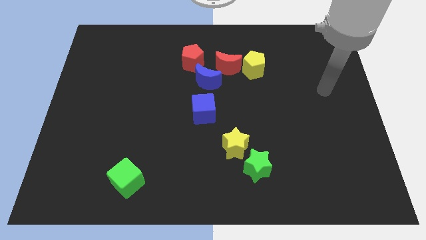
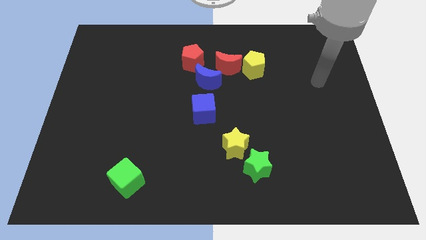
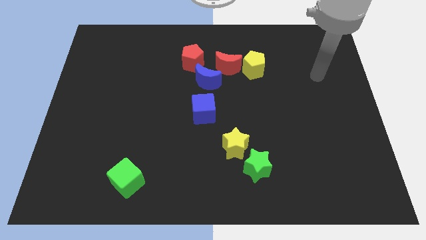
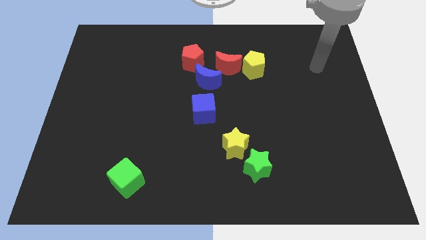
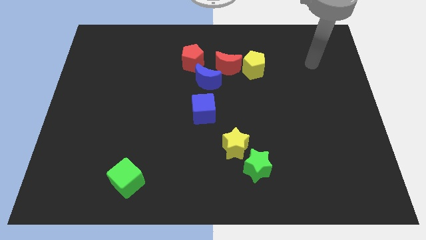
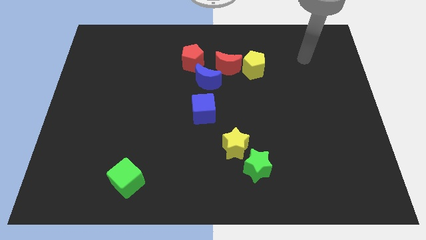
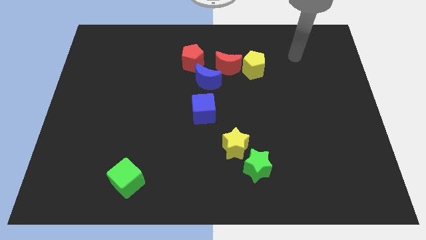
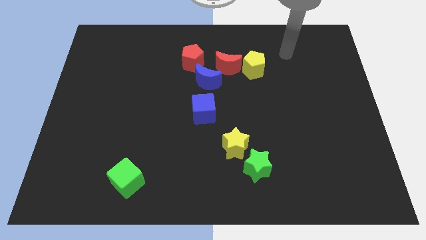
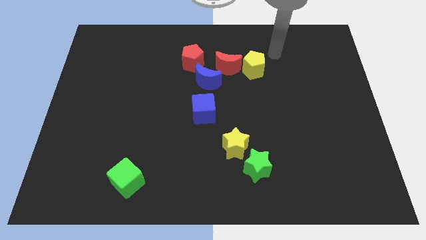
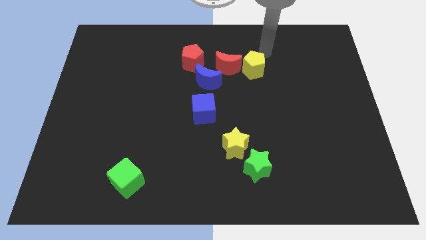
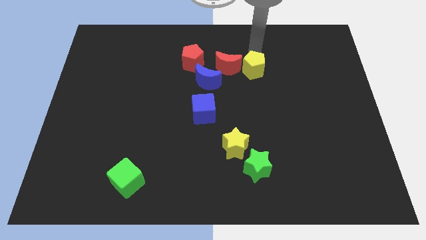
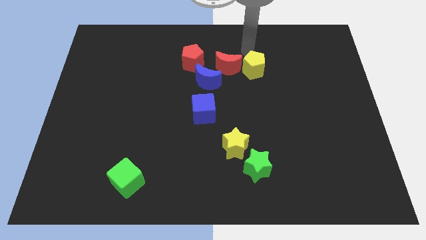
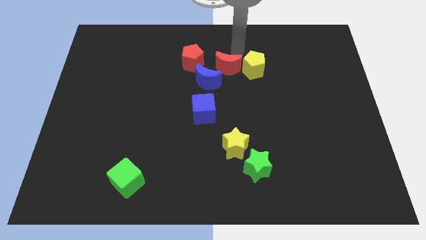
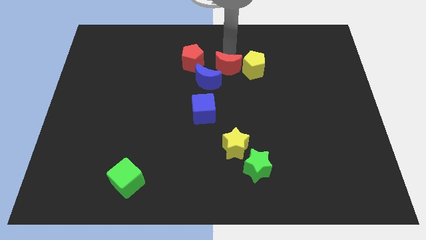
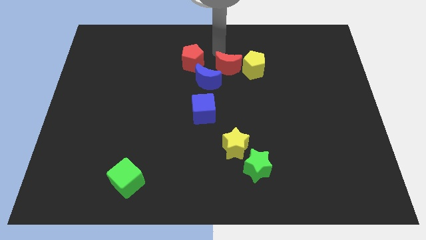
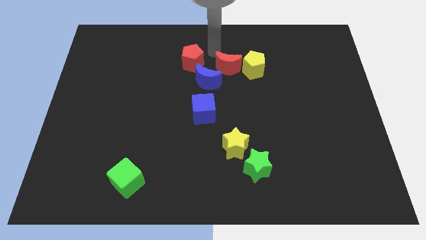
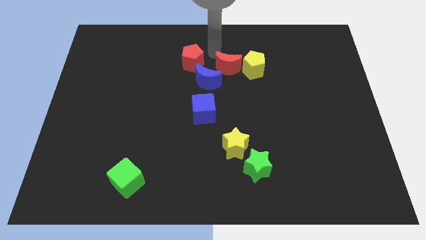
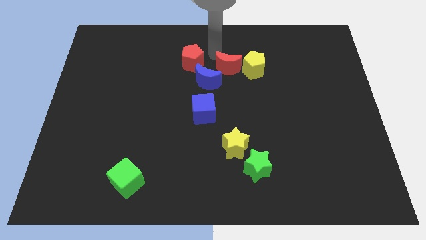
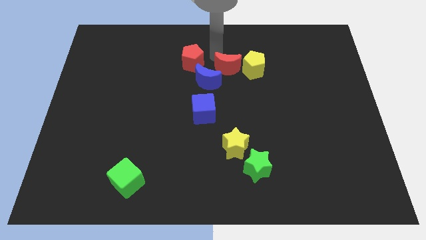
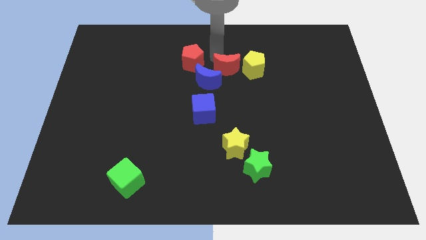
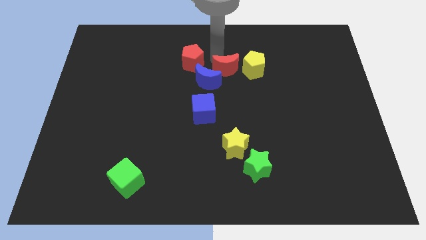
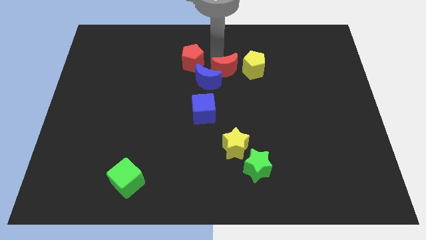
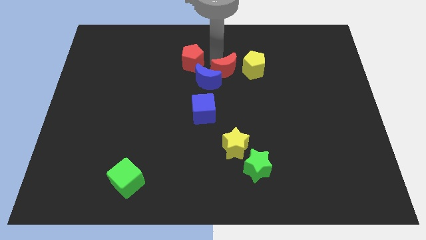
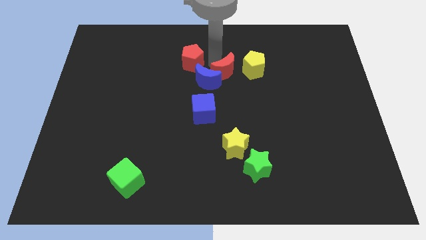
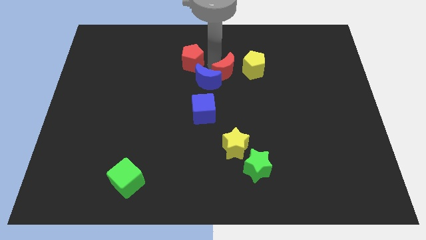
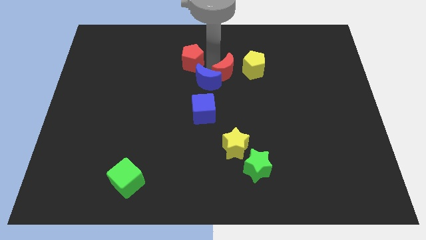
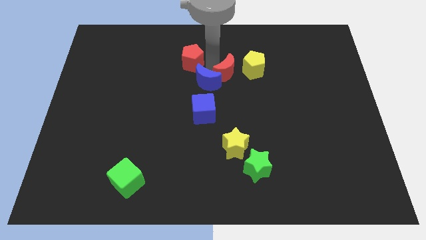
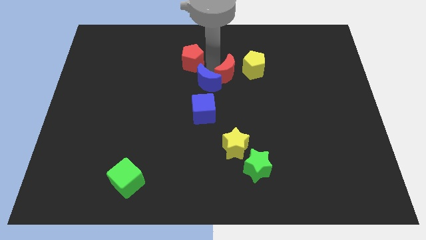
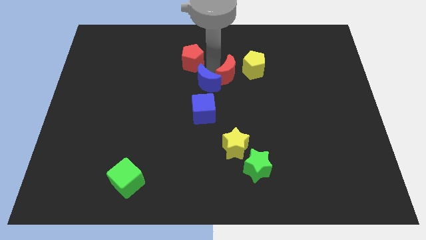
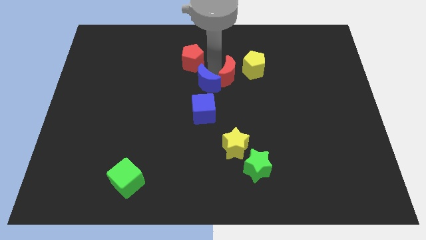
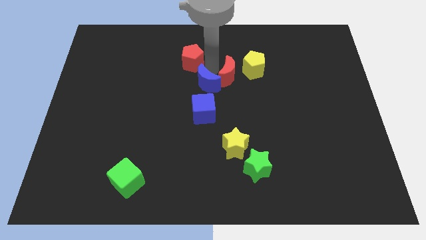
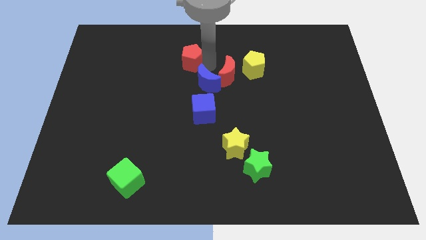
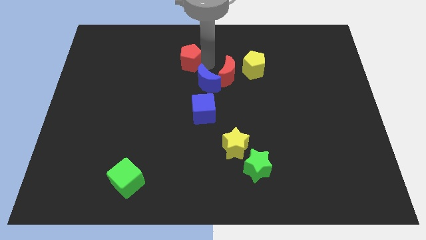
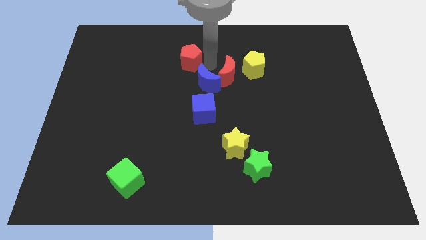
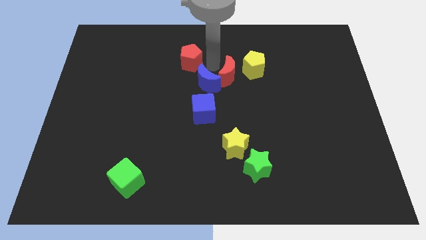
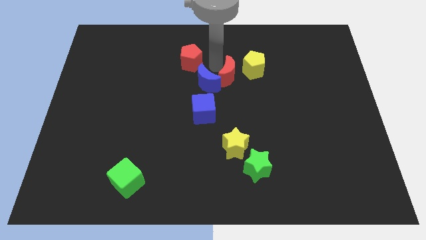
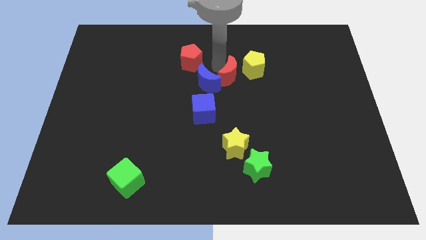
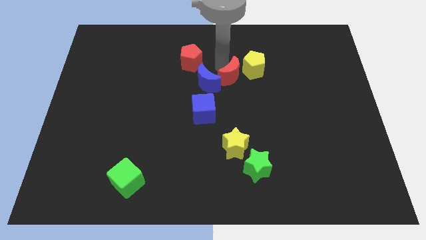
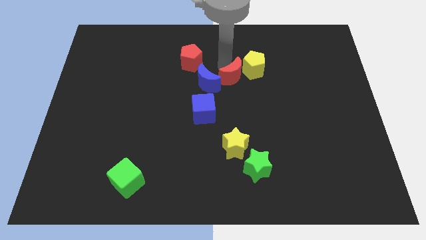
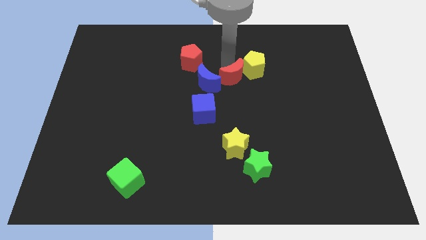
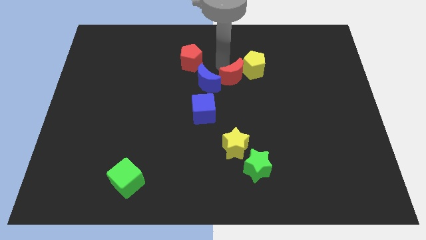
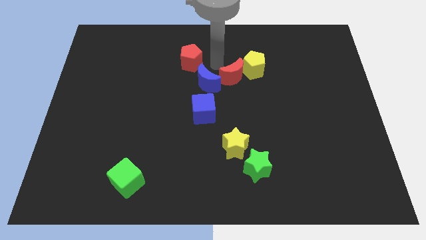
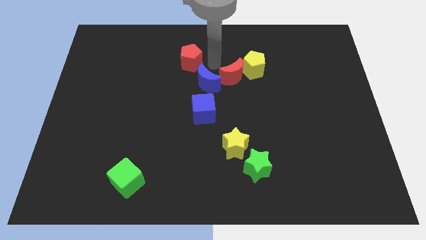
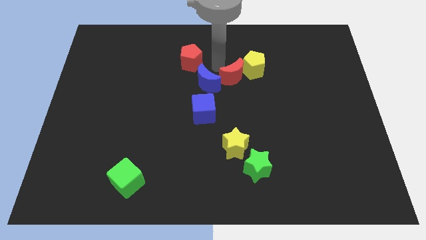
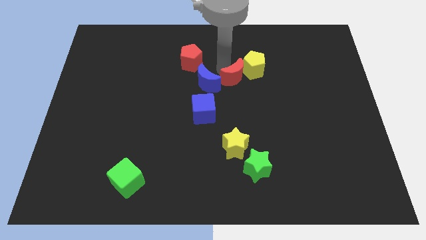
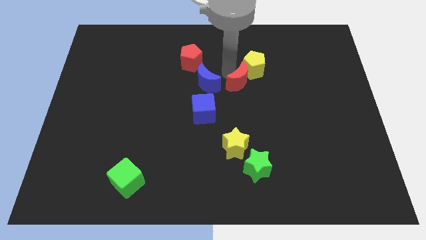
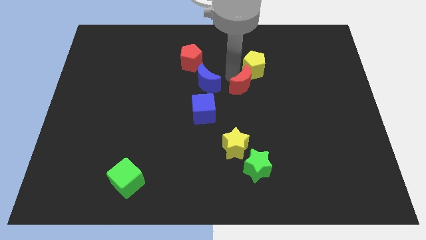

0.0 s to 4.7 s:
push the red moon a bit diagonally downwards and to the right

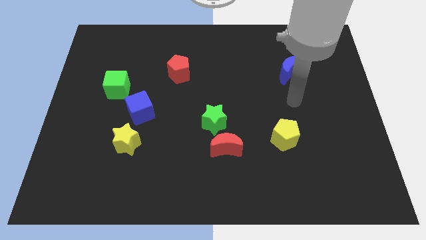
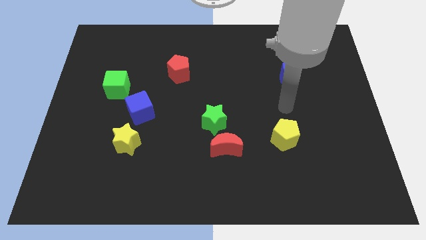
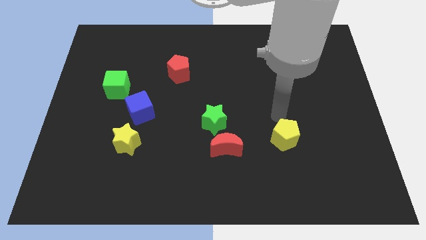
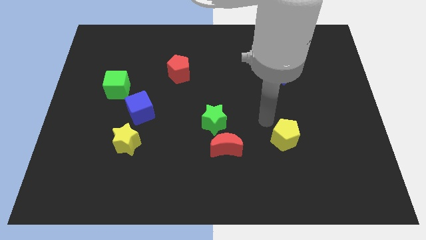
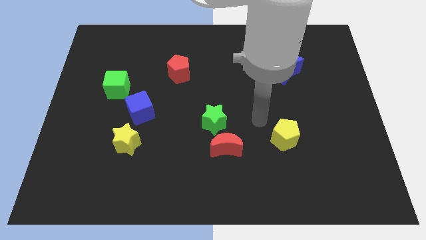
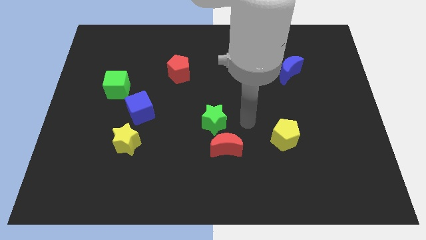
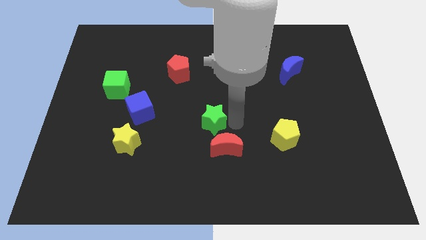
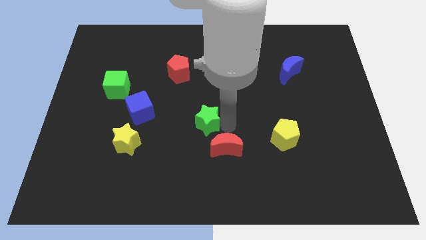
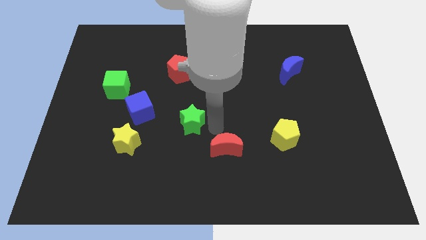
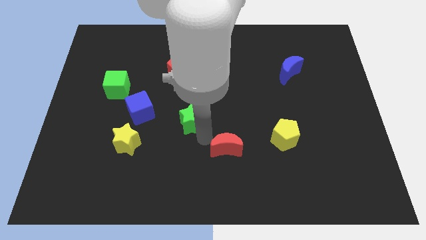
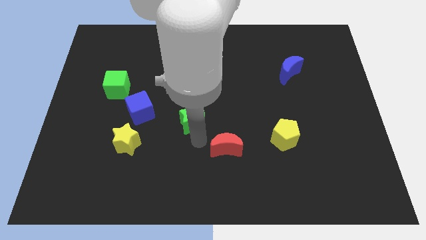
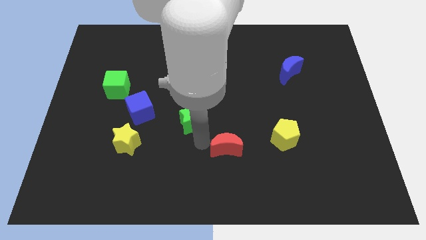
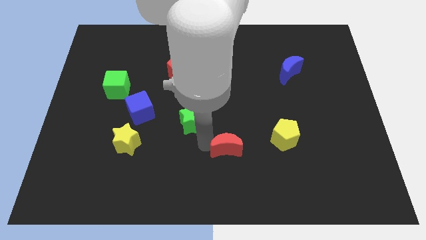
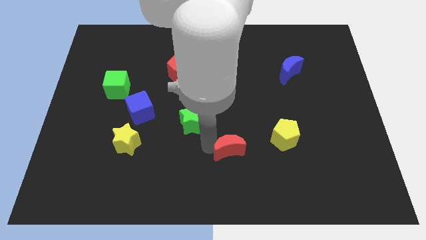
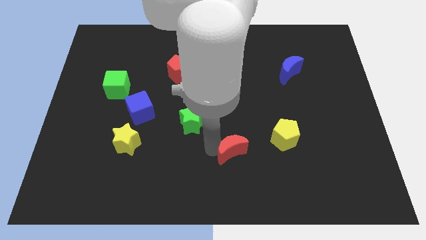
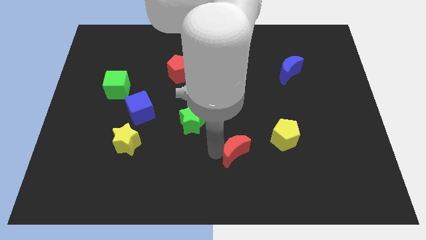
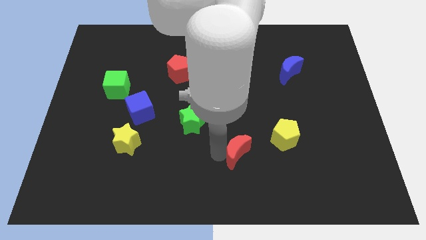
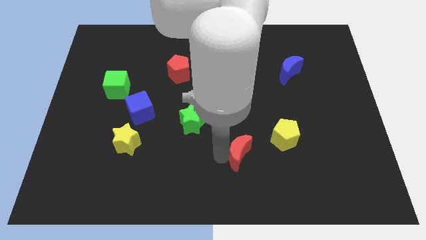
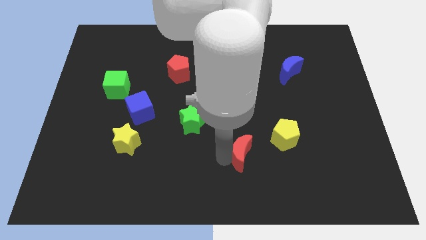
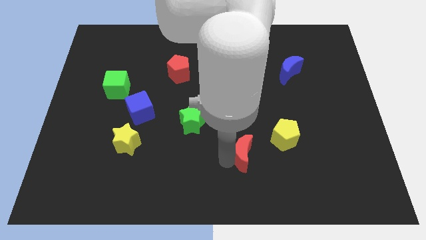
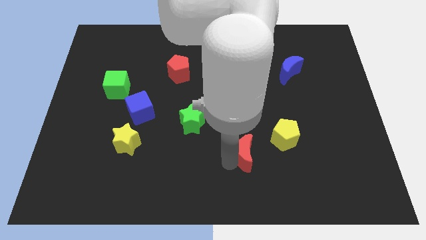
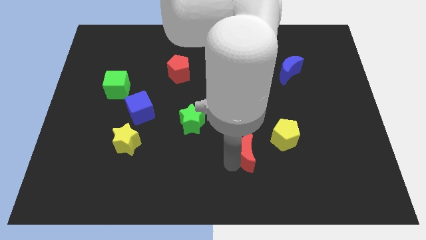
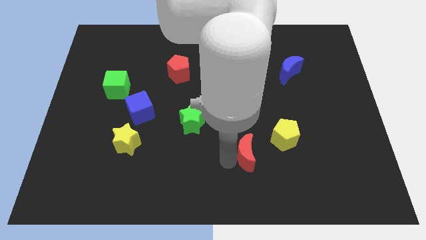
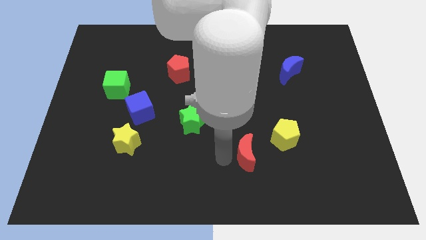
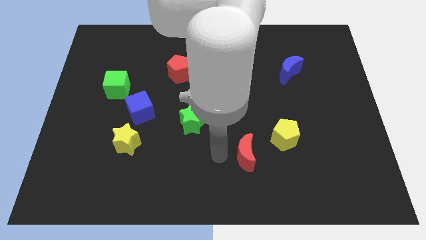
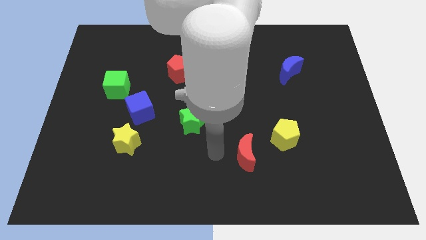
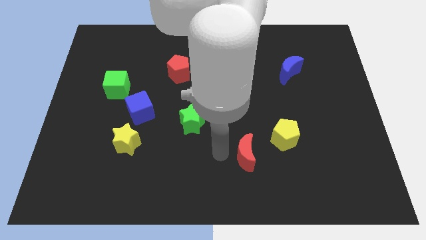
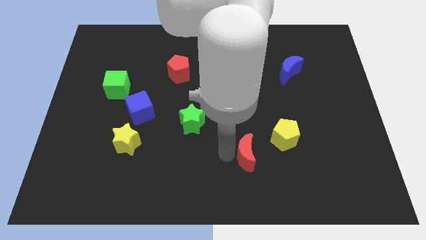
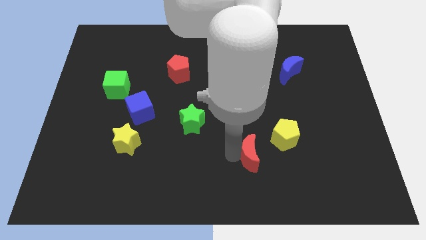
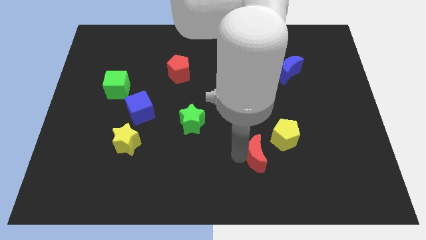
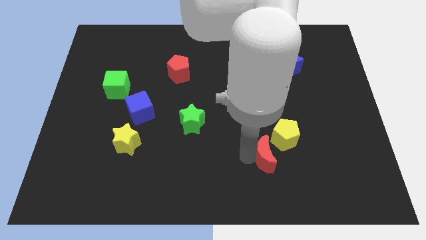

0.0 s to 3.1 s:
push the red moon a little bit right
